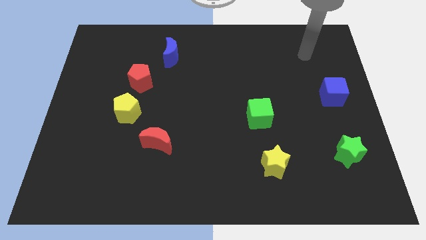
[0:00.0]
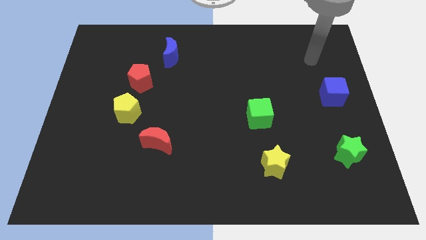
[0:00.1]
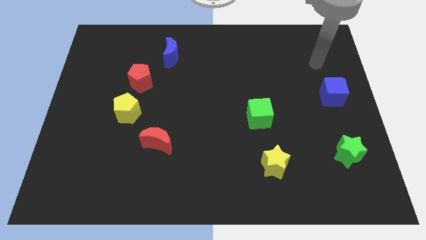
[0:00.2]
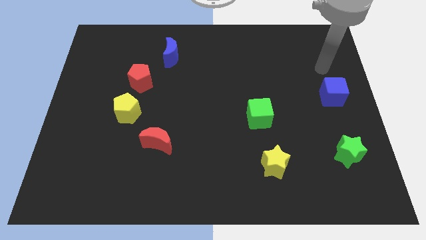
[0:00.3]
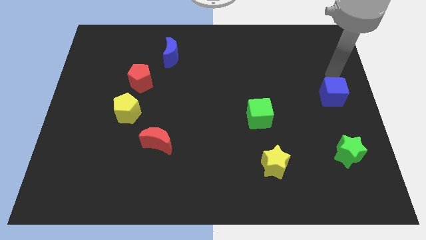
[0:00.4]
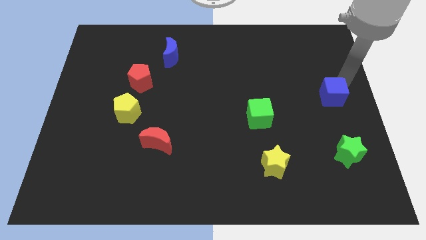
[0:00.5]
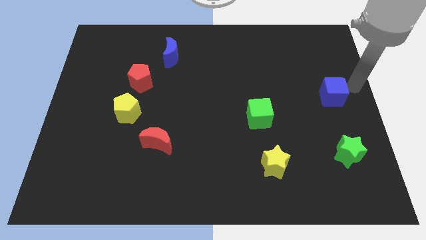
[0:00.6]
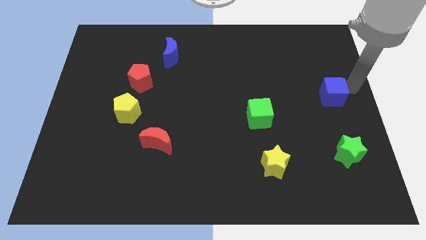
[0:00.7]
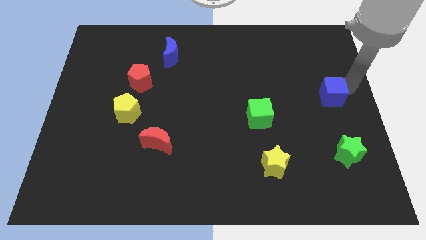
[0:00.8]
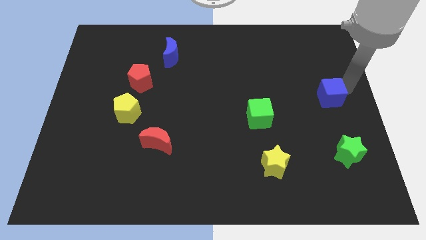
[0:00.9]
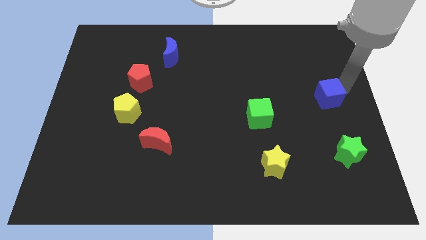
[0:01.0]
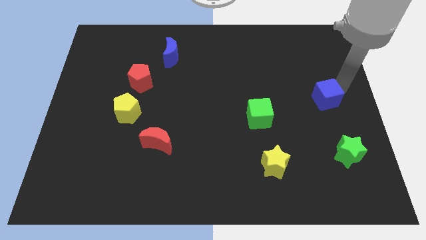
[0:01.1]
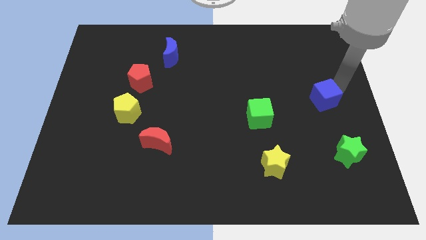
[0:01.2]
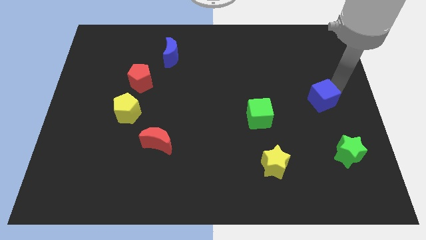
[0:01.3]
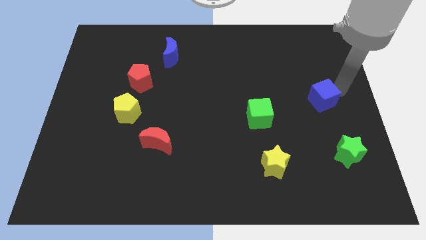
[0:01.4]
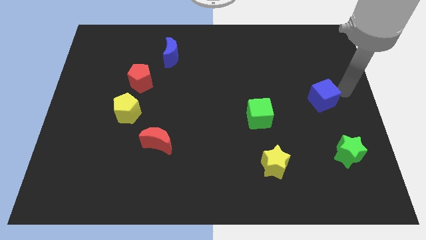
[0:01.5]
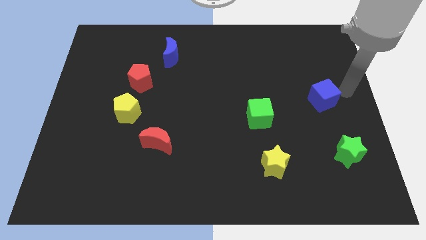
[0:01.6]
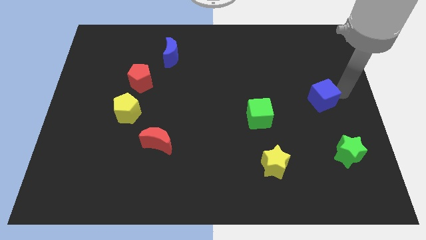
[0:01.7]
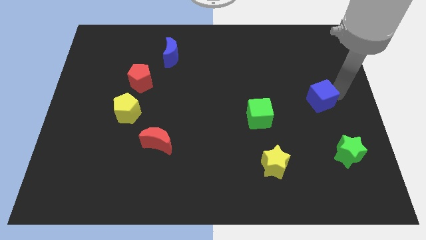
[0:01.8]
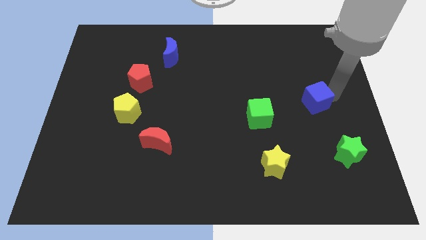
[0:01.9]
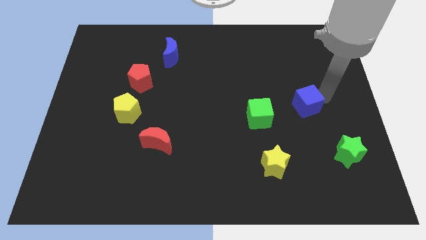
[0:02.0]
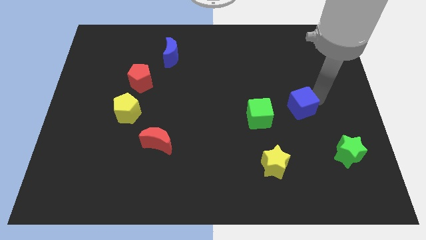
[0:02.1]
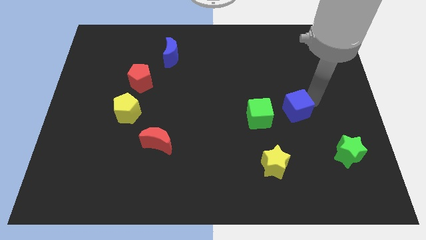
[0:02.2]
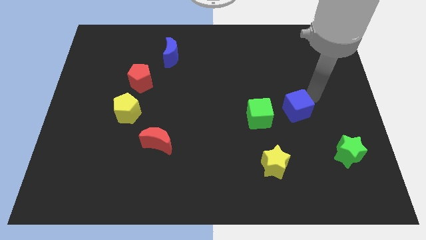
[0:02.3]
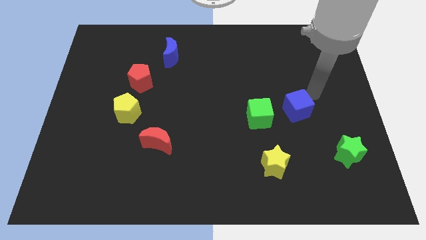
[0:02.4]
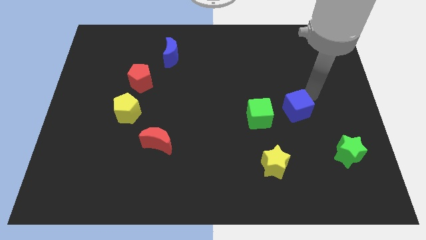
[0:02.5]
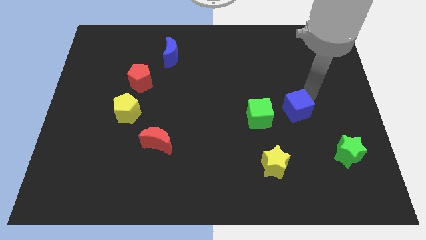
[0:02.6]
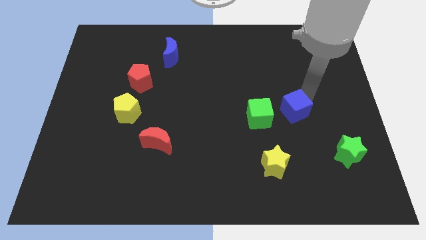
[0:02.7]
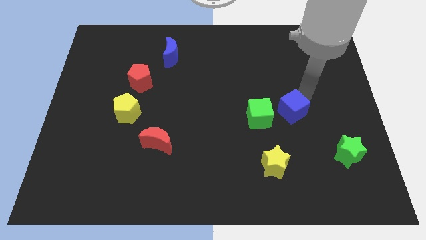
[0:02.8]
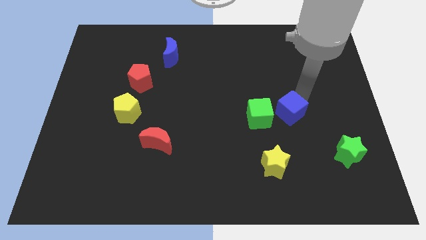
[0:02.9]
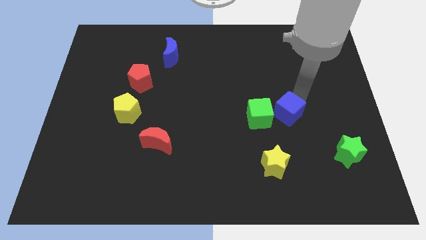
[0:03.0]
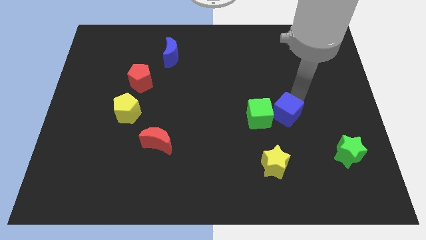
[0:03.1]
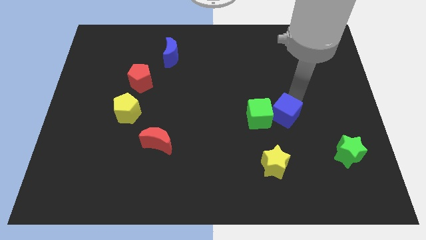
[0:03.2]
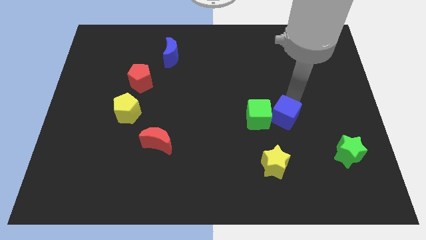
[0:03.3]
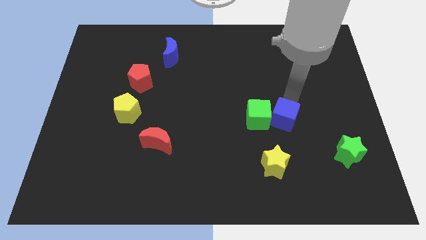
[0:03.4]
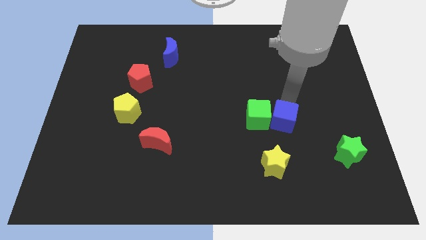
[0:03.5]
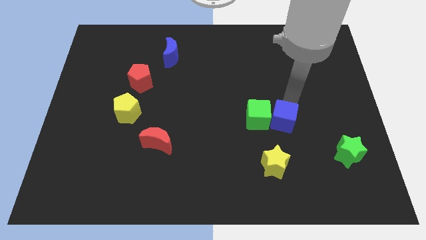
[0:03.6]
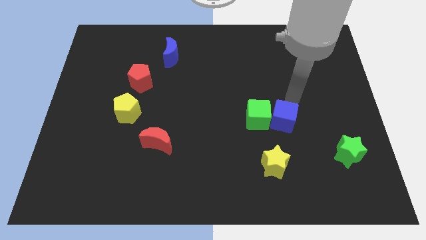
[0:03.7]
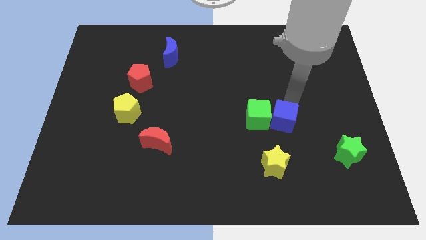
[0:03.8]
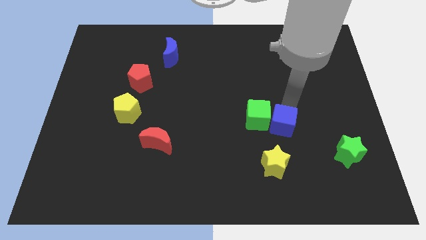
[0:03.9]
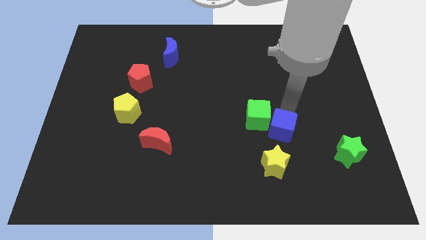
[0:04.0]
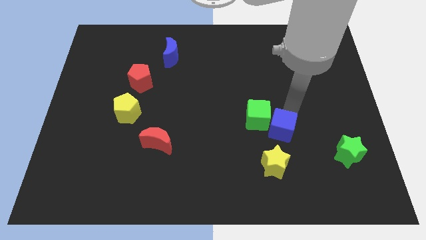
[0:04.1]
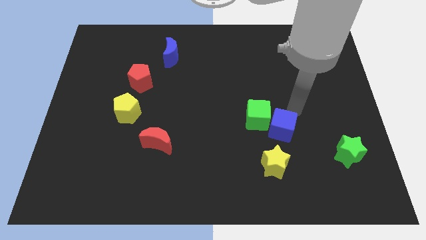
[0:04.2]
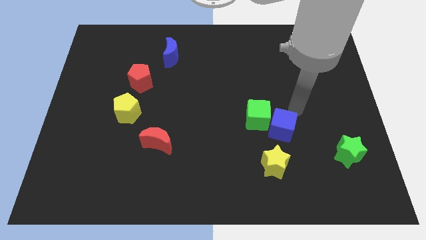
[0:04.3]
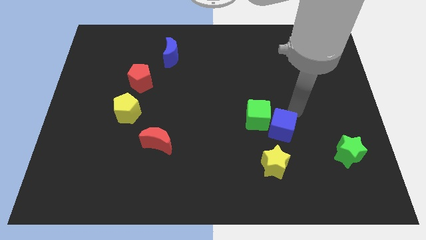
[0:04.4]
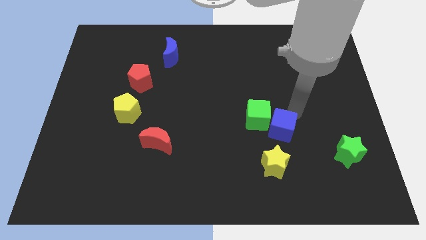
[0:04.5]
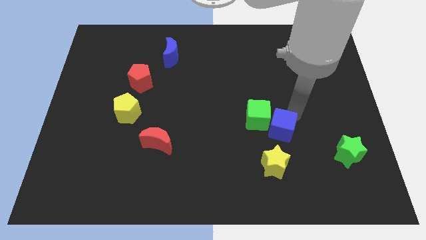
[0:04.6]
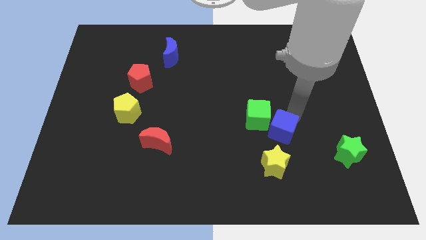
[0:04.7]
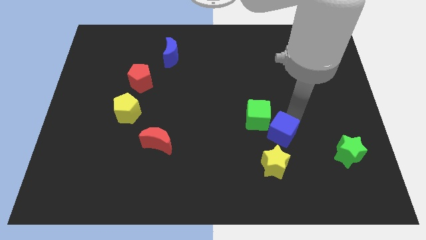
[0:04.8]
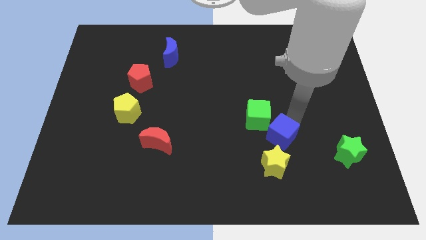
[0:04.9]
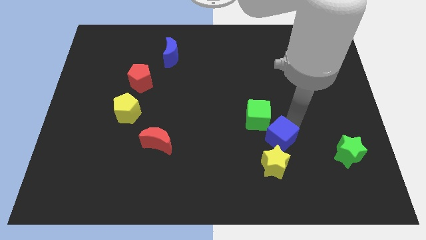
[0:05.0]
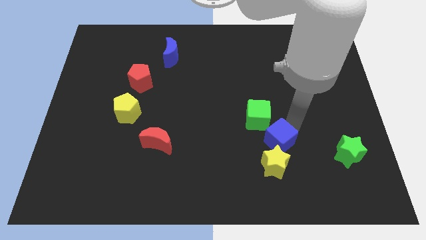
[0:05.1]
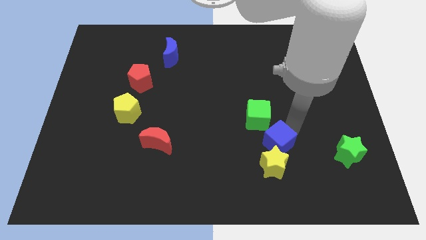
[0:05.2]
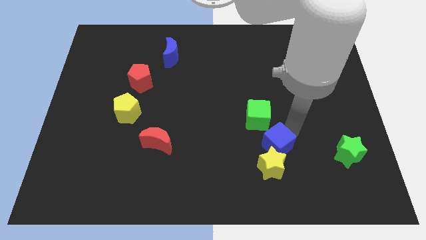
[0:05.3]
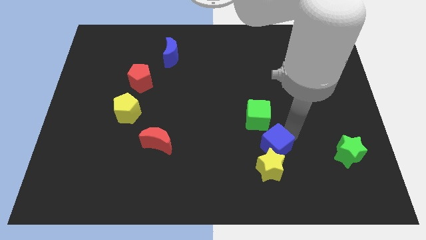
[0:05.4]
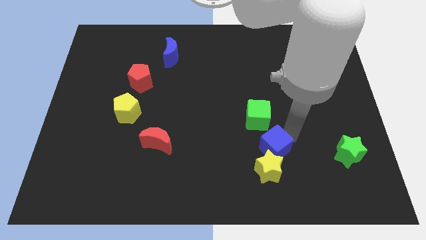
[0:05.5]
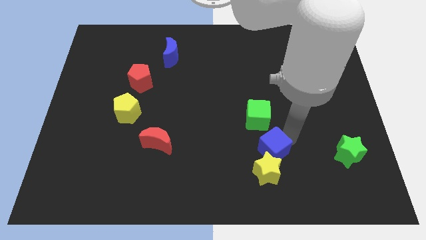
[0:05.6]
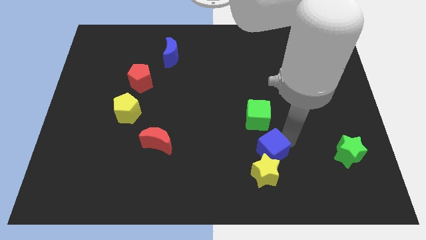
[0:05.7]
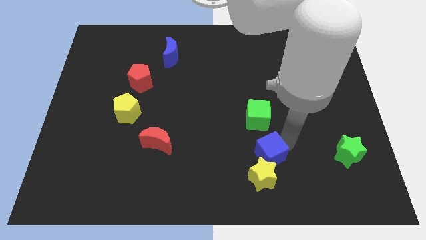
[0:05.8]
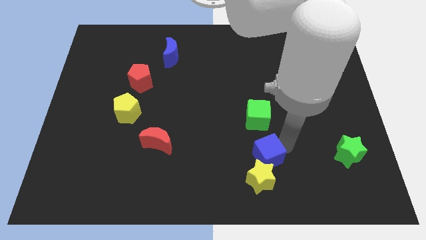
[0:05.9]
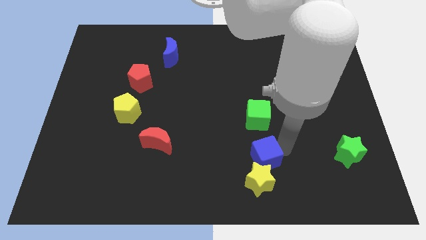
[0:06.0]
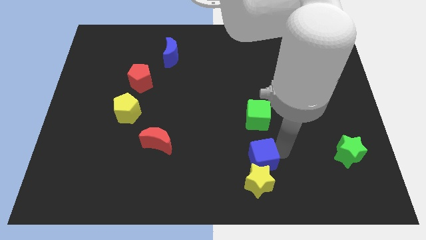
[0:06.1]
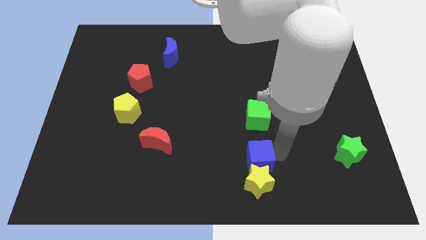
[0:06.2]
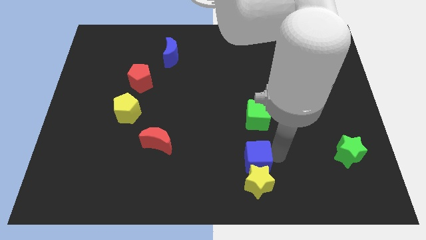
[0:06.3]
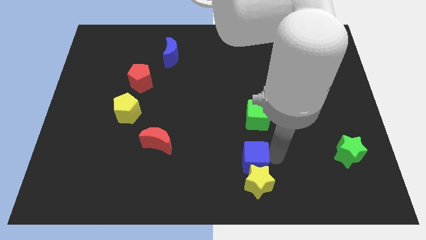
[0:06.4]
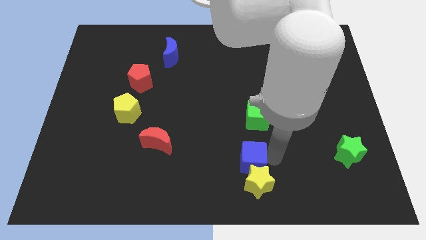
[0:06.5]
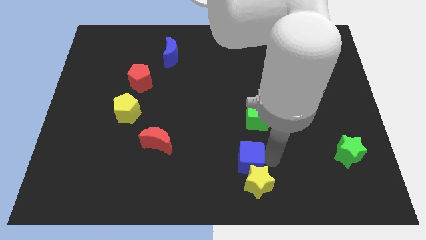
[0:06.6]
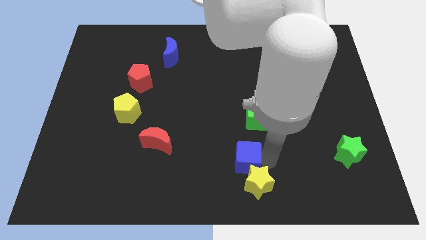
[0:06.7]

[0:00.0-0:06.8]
slide the blue cube to the bottom side
